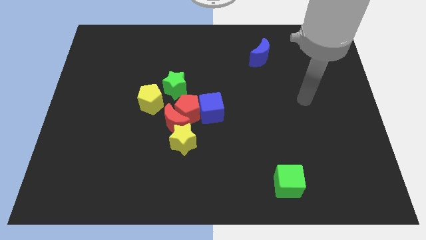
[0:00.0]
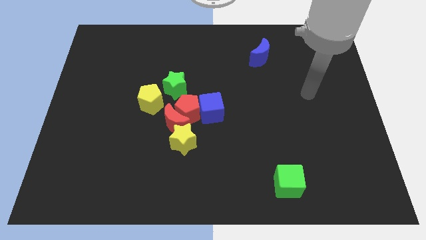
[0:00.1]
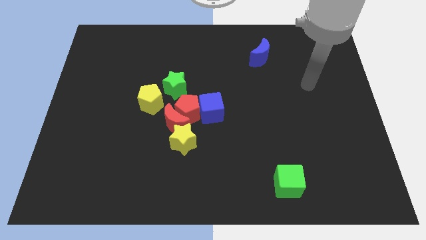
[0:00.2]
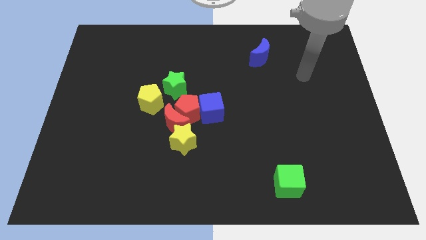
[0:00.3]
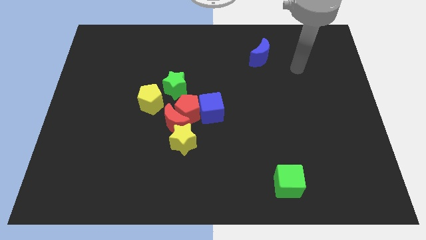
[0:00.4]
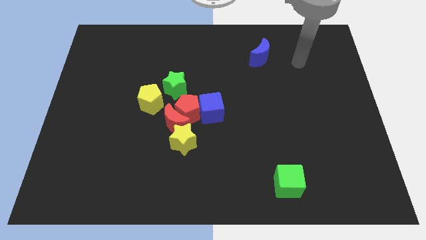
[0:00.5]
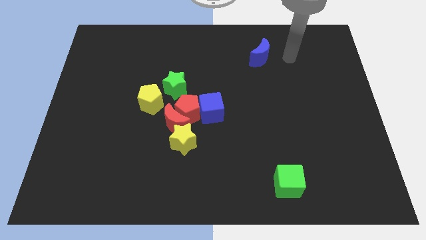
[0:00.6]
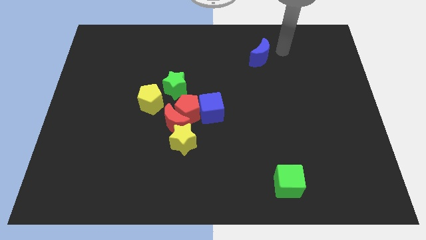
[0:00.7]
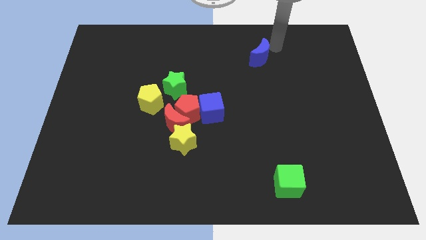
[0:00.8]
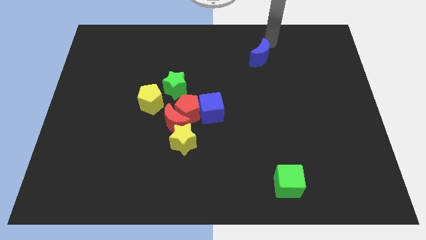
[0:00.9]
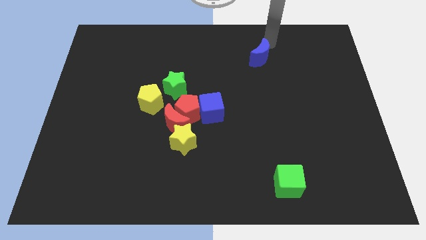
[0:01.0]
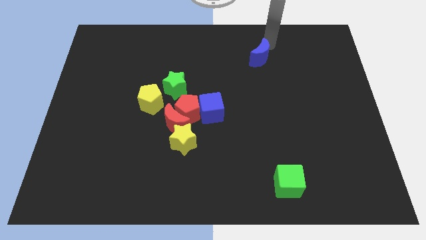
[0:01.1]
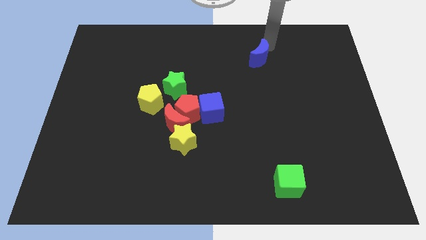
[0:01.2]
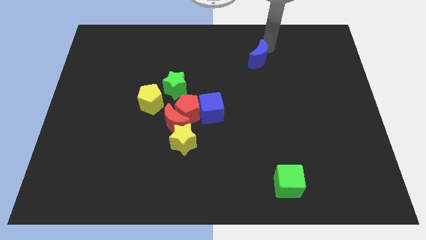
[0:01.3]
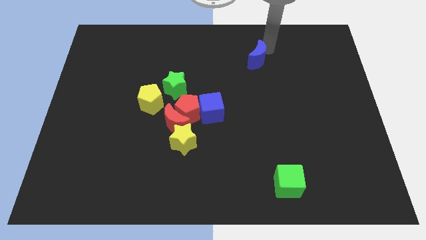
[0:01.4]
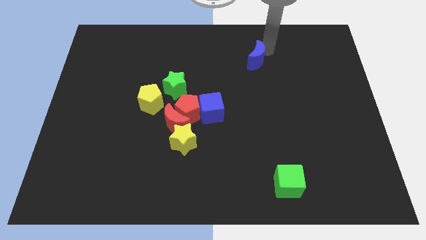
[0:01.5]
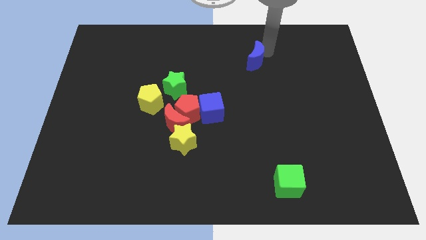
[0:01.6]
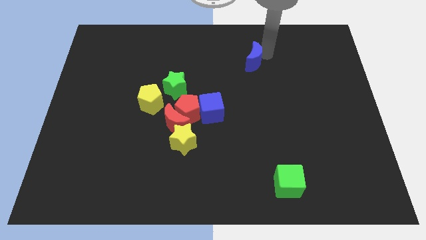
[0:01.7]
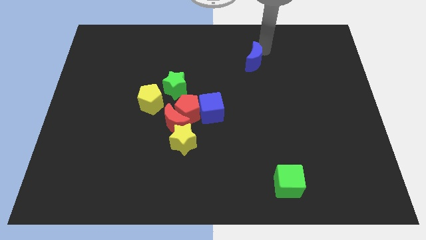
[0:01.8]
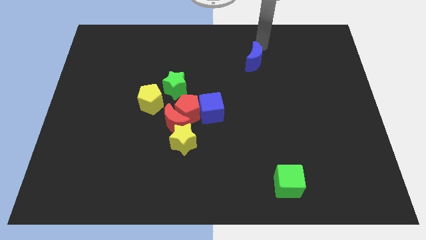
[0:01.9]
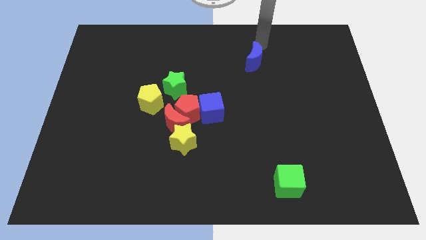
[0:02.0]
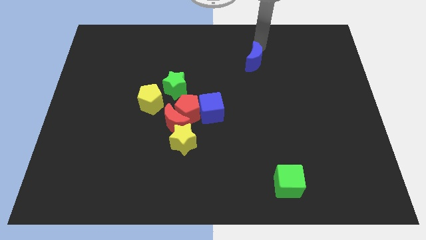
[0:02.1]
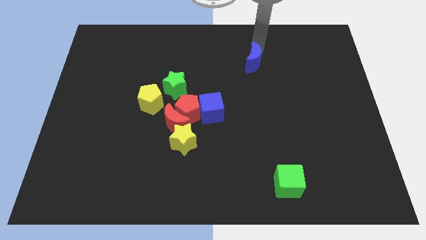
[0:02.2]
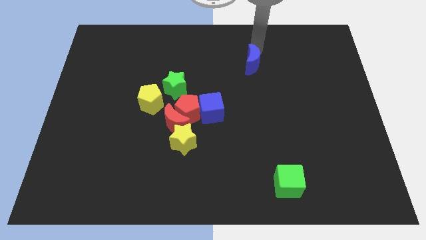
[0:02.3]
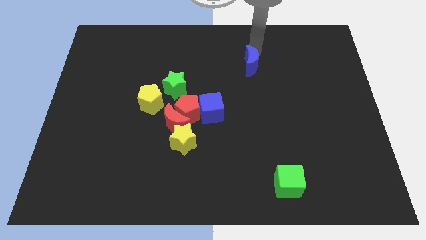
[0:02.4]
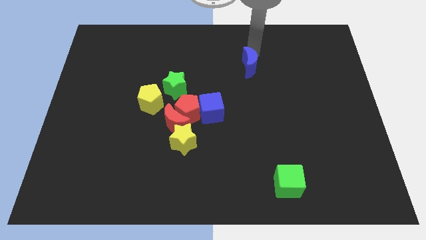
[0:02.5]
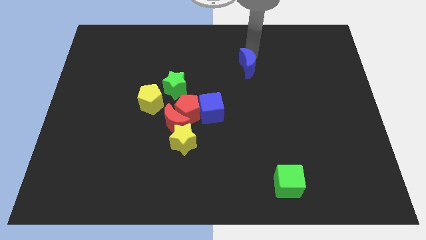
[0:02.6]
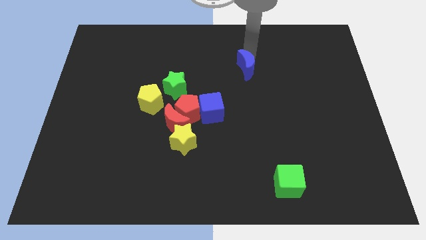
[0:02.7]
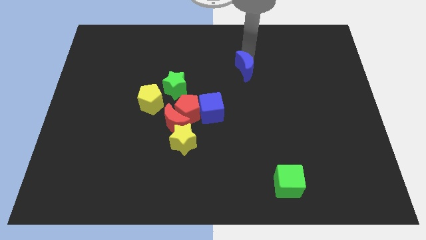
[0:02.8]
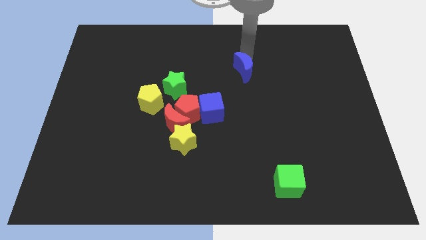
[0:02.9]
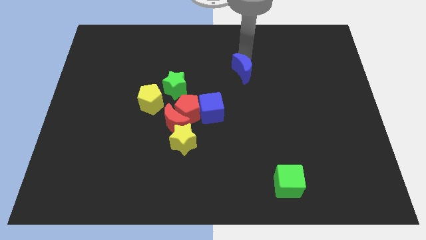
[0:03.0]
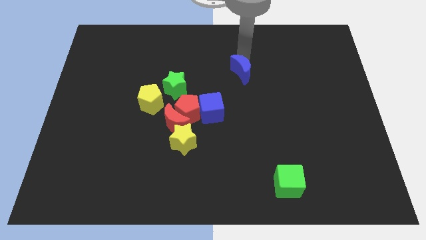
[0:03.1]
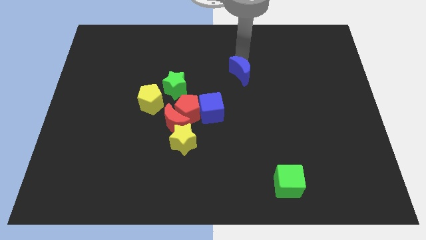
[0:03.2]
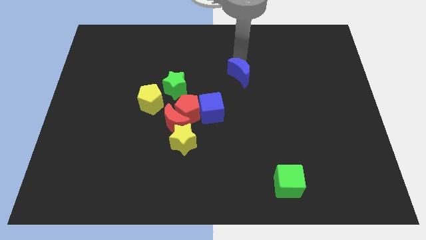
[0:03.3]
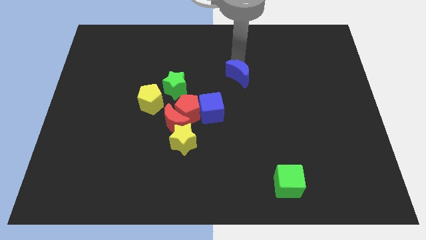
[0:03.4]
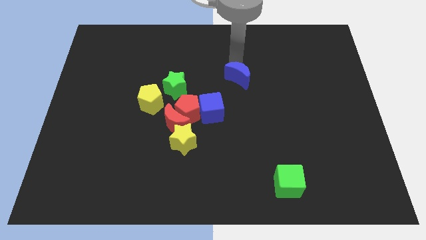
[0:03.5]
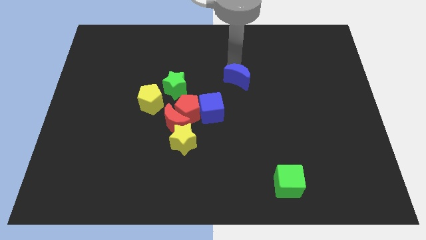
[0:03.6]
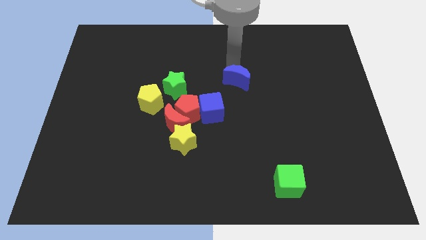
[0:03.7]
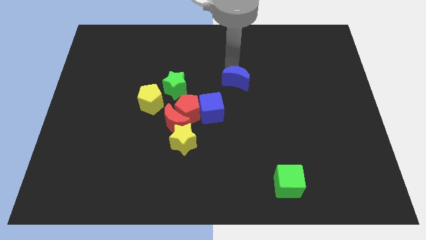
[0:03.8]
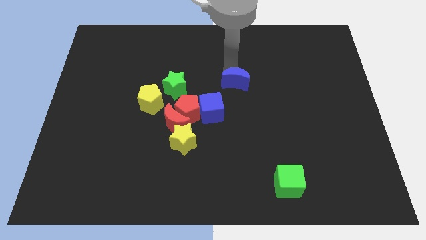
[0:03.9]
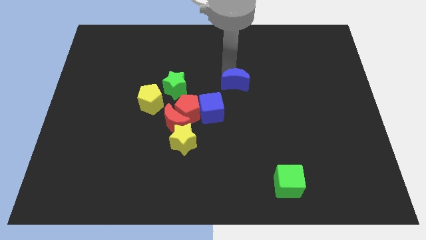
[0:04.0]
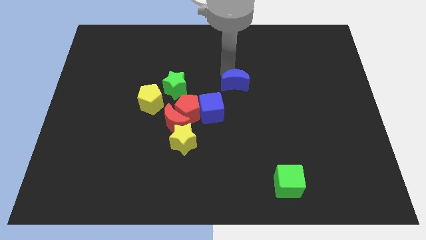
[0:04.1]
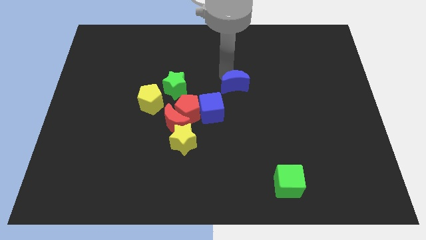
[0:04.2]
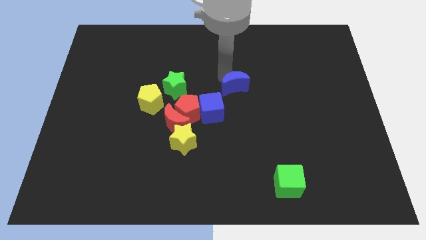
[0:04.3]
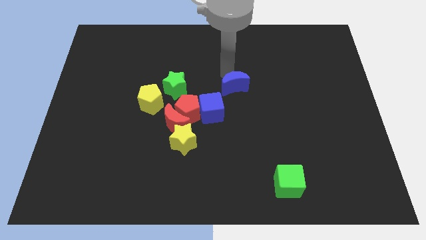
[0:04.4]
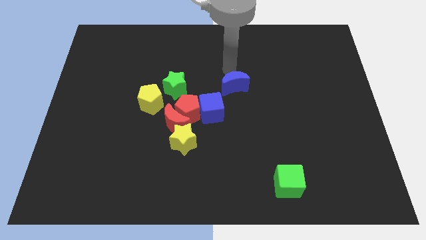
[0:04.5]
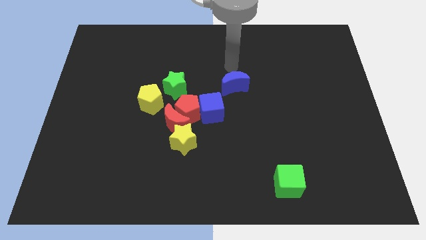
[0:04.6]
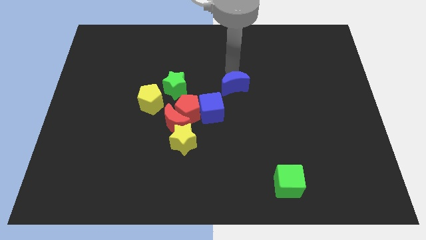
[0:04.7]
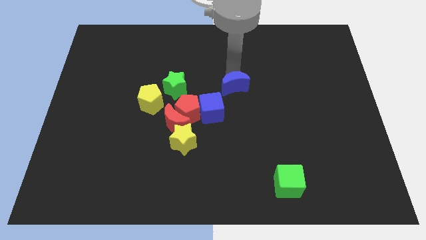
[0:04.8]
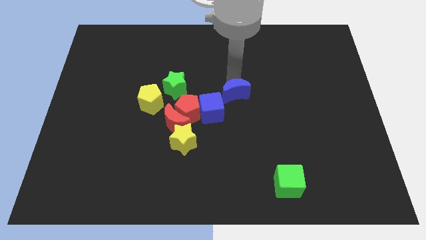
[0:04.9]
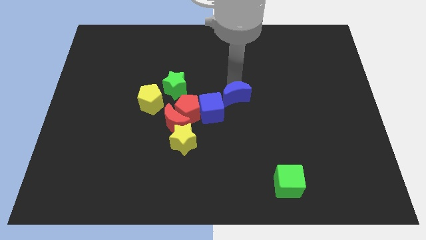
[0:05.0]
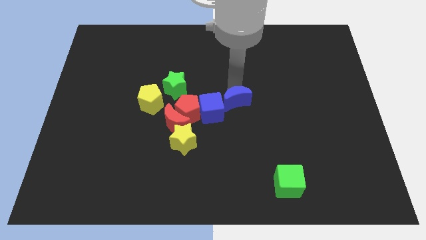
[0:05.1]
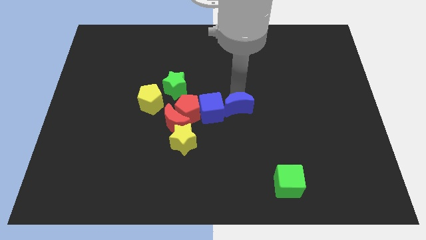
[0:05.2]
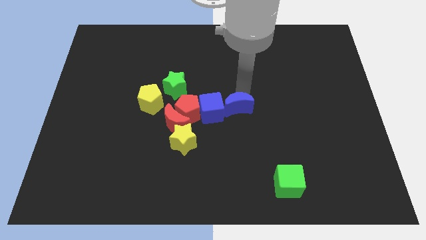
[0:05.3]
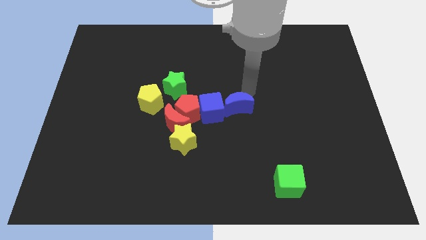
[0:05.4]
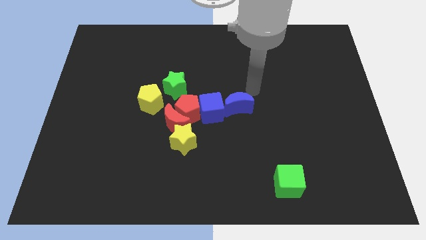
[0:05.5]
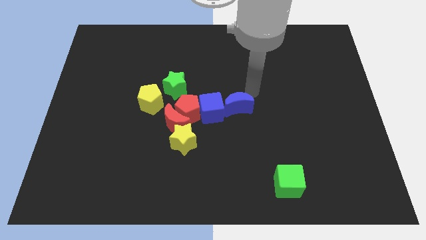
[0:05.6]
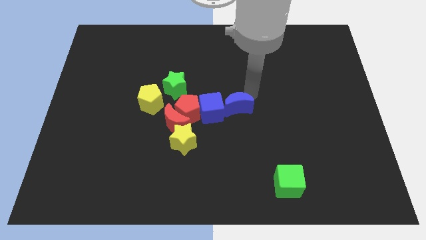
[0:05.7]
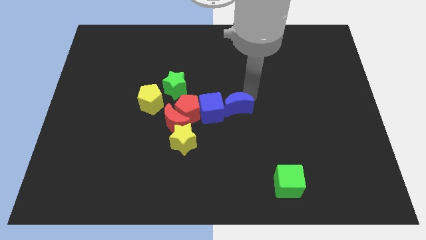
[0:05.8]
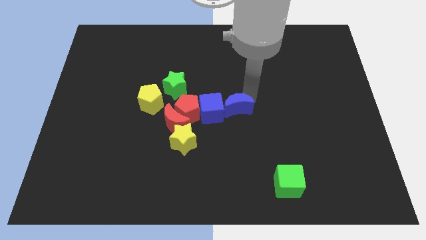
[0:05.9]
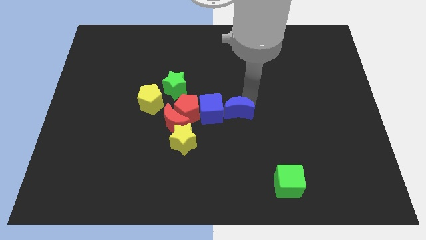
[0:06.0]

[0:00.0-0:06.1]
move the blue moon to the right side of the red moon

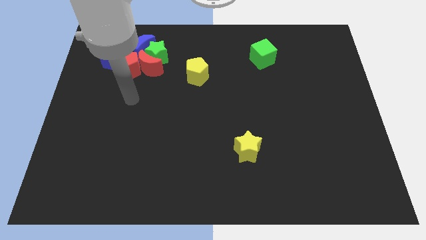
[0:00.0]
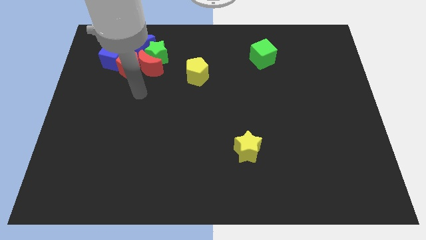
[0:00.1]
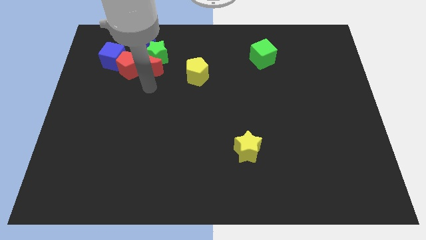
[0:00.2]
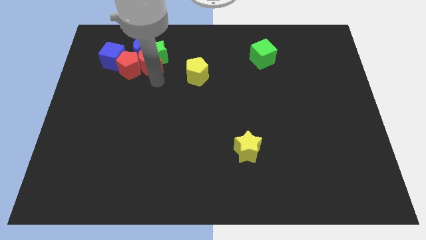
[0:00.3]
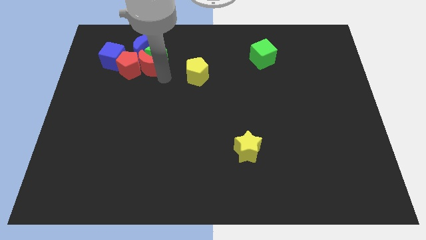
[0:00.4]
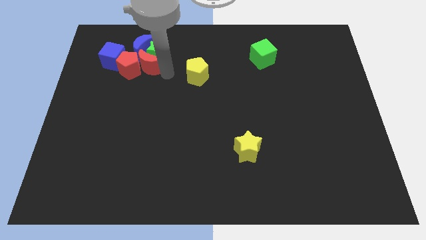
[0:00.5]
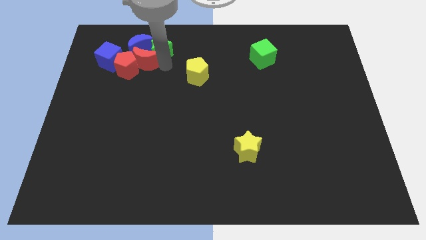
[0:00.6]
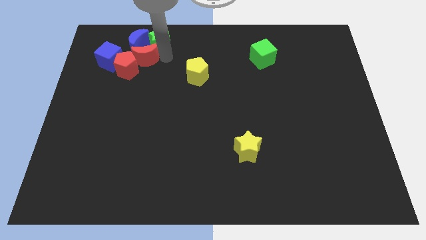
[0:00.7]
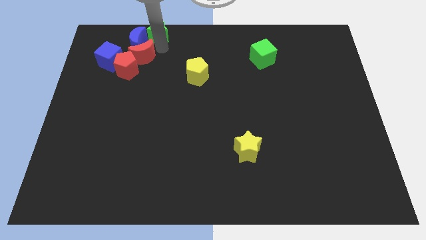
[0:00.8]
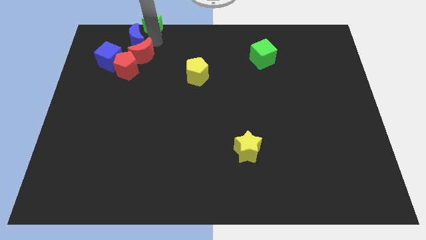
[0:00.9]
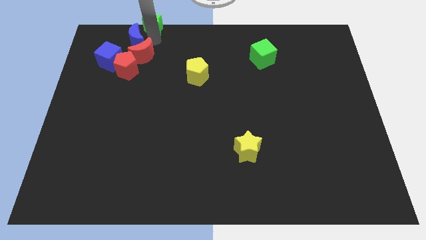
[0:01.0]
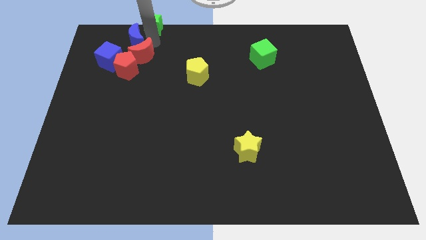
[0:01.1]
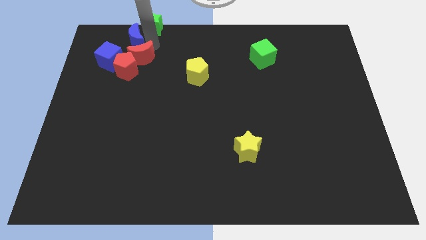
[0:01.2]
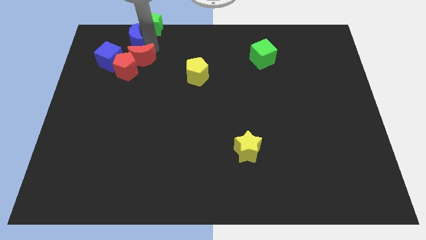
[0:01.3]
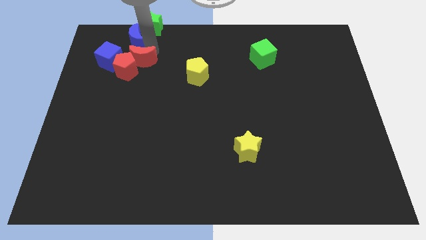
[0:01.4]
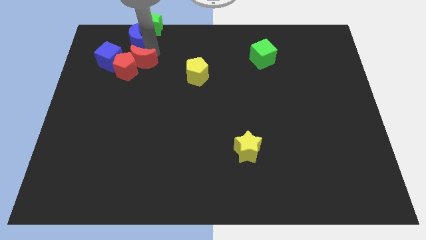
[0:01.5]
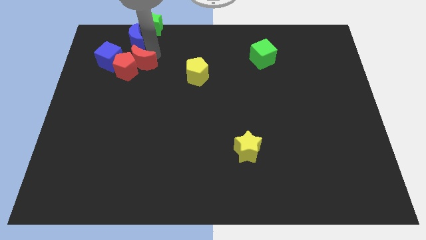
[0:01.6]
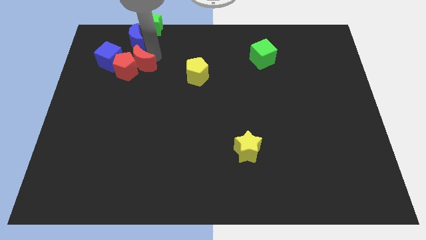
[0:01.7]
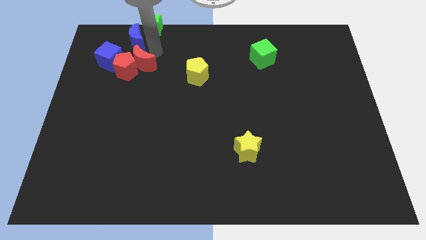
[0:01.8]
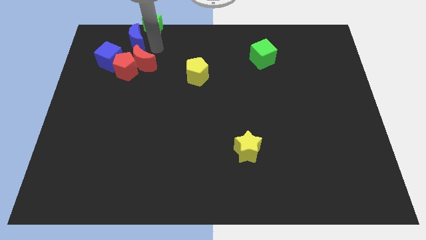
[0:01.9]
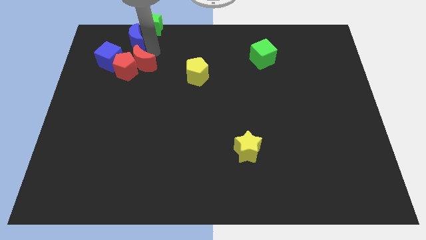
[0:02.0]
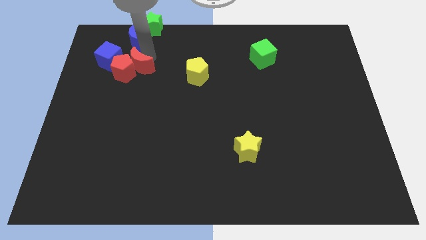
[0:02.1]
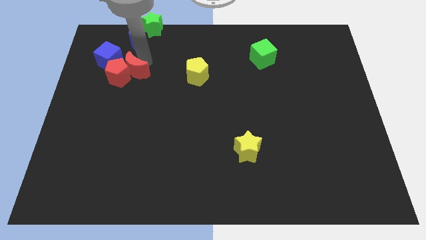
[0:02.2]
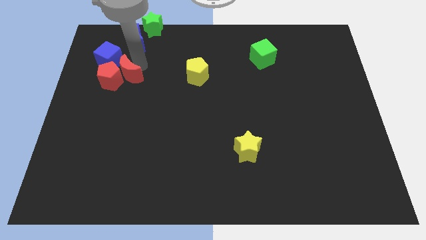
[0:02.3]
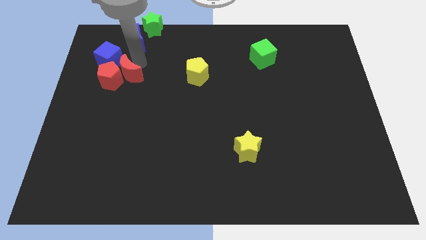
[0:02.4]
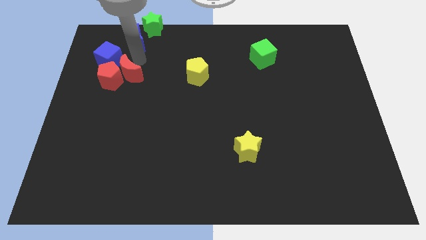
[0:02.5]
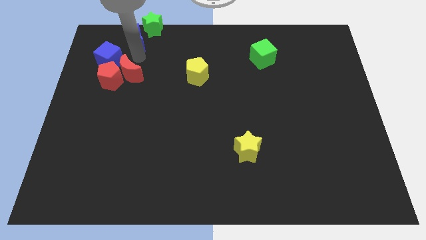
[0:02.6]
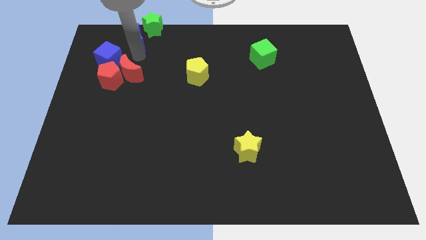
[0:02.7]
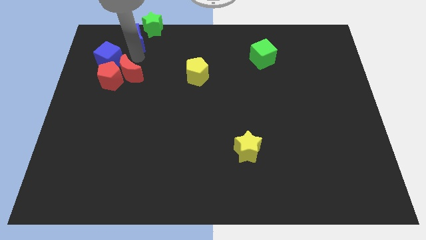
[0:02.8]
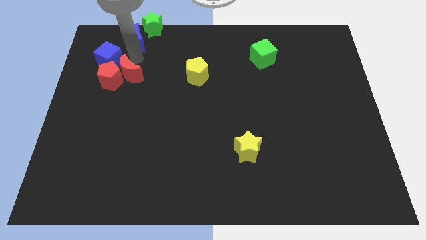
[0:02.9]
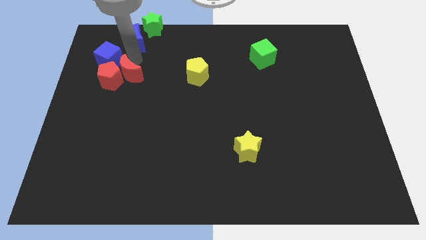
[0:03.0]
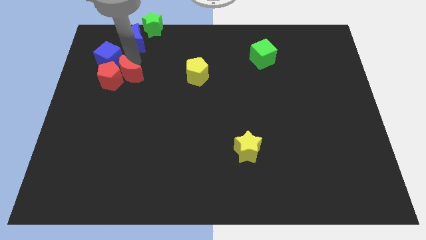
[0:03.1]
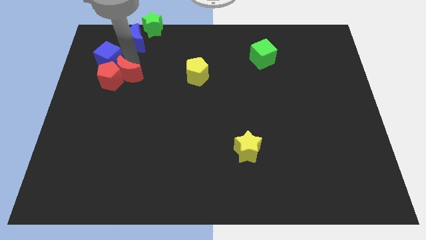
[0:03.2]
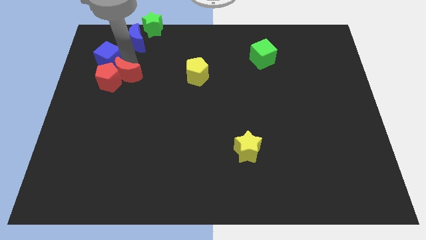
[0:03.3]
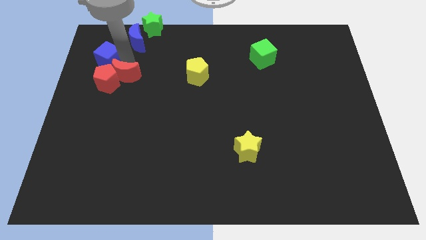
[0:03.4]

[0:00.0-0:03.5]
move the red moon below the blue cube
